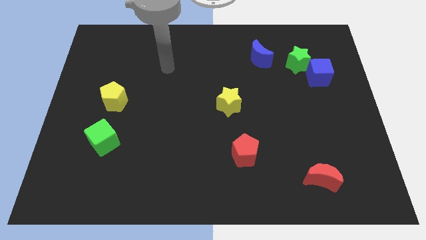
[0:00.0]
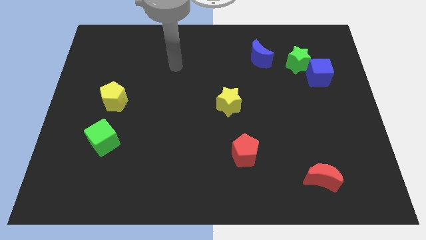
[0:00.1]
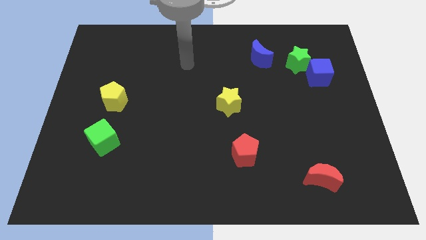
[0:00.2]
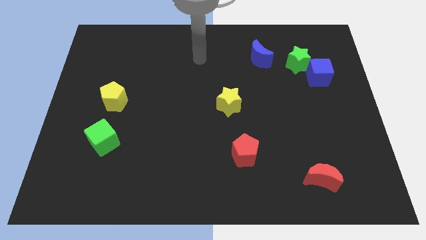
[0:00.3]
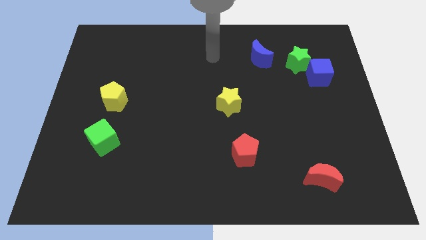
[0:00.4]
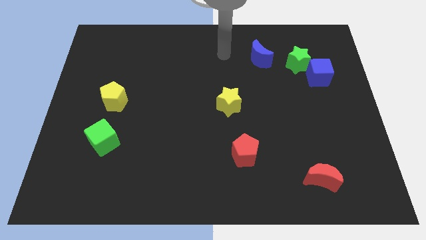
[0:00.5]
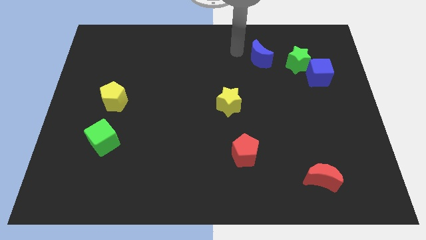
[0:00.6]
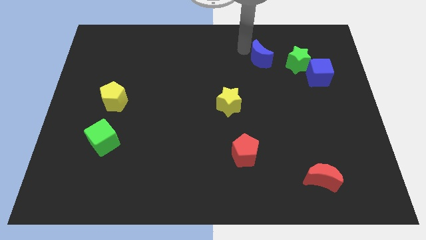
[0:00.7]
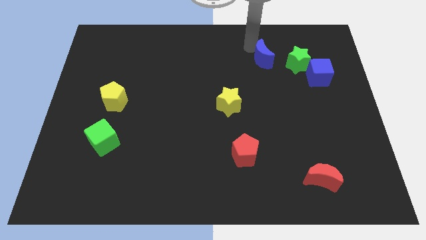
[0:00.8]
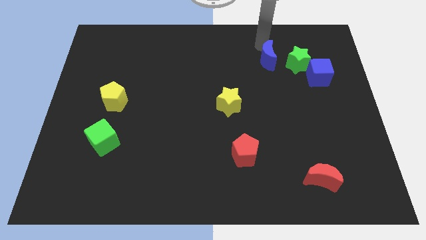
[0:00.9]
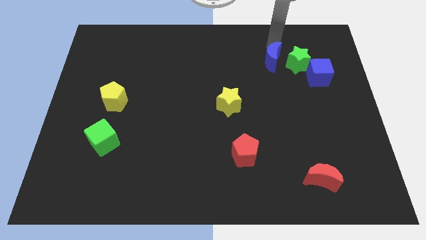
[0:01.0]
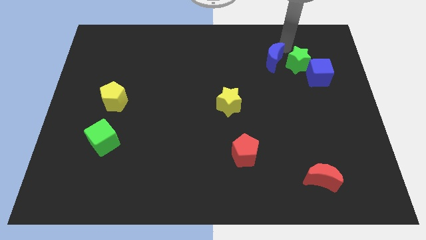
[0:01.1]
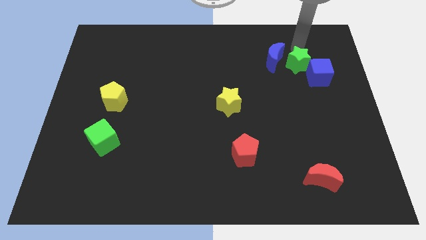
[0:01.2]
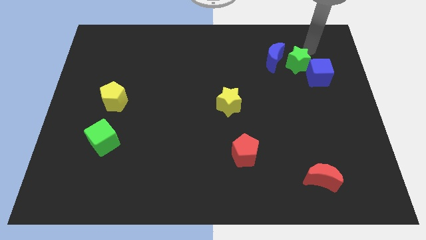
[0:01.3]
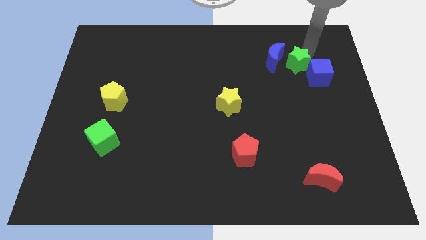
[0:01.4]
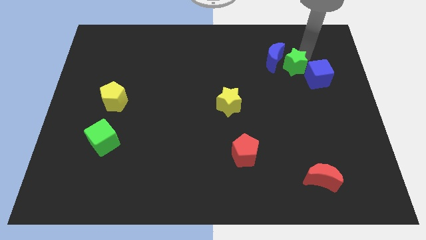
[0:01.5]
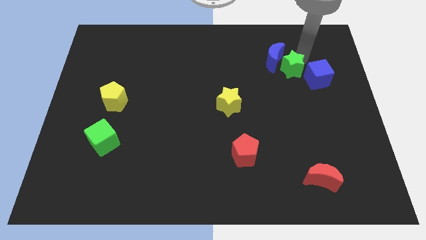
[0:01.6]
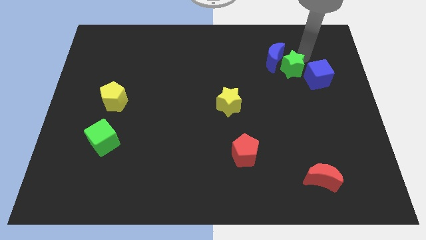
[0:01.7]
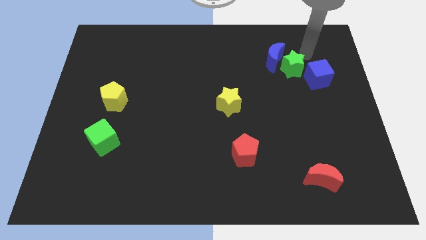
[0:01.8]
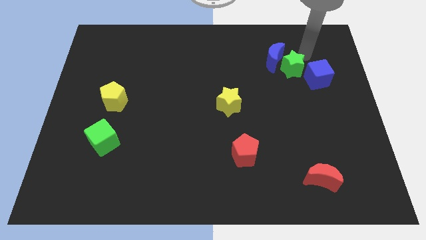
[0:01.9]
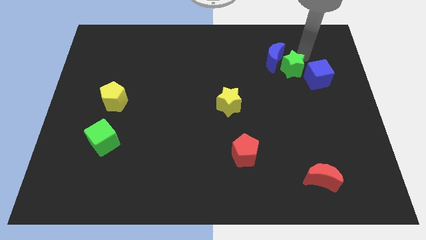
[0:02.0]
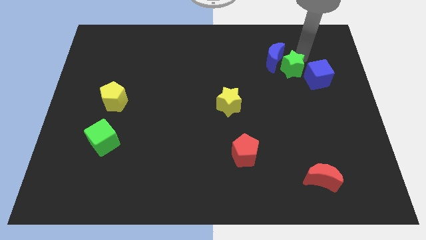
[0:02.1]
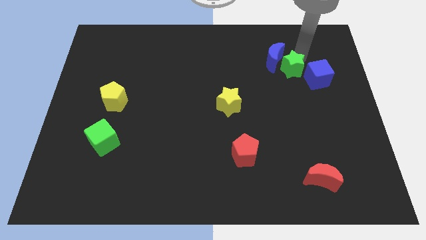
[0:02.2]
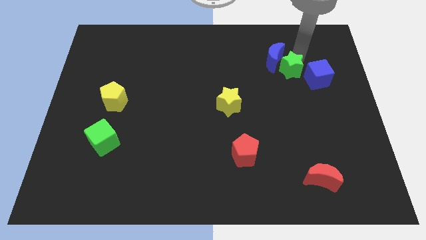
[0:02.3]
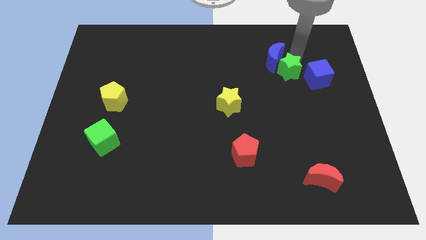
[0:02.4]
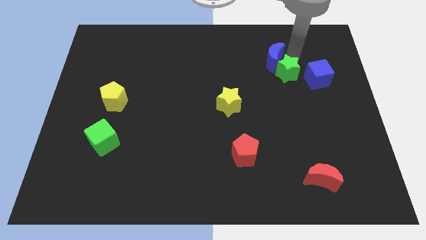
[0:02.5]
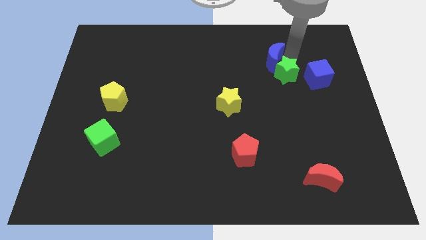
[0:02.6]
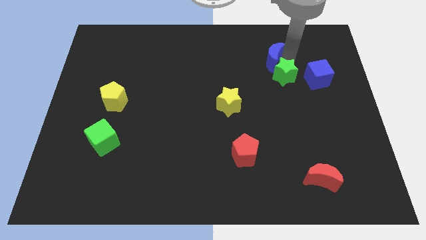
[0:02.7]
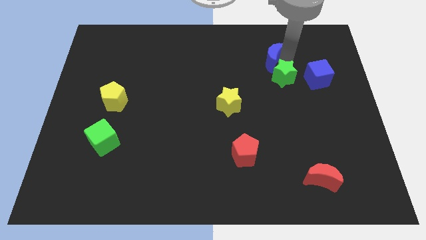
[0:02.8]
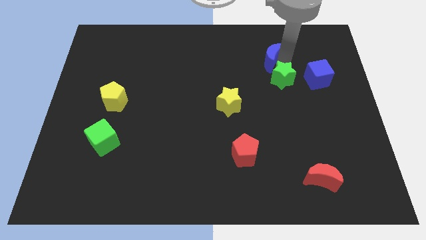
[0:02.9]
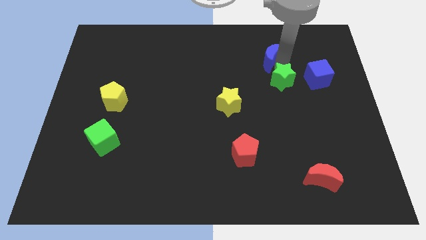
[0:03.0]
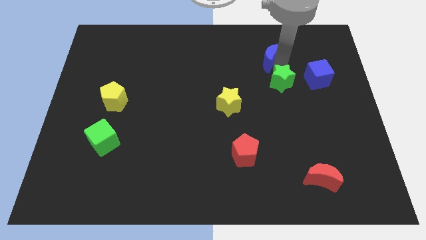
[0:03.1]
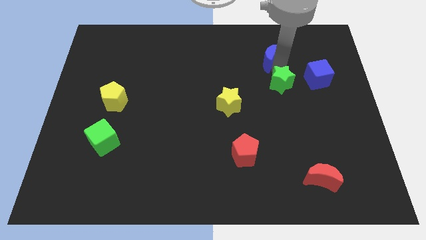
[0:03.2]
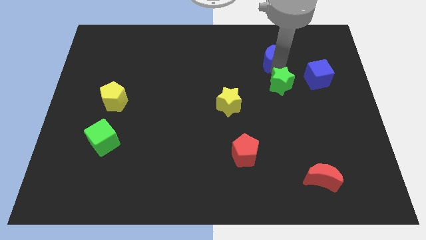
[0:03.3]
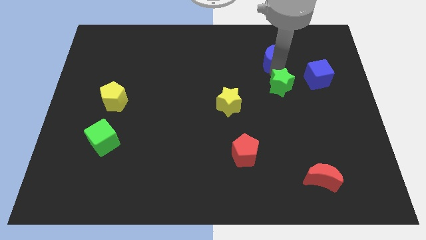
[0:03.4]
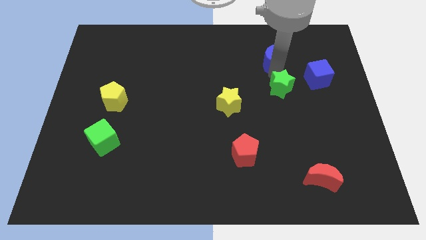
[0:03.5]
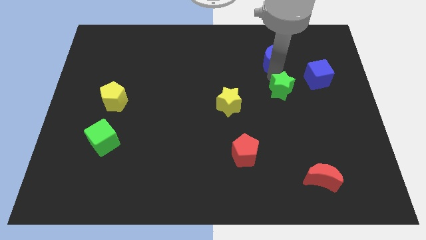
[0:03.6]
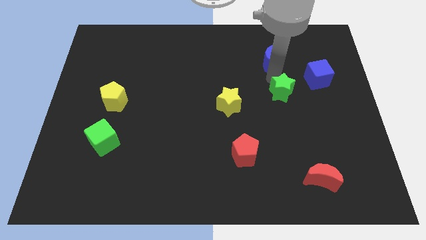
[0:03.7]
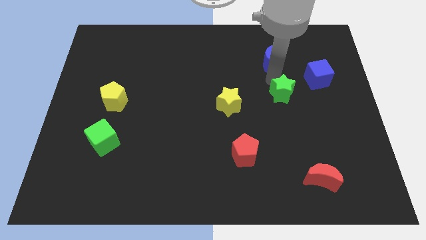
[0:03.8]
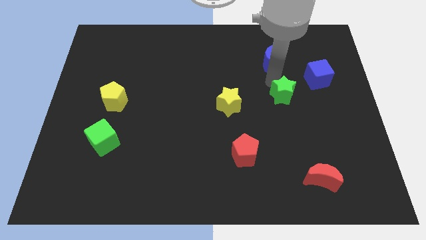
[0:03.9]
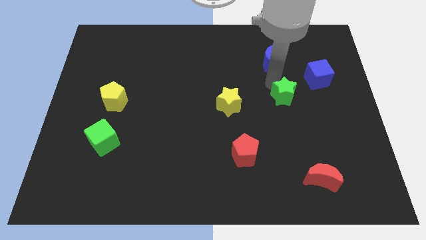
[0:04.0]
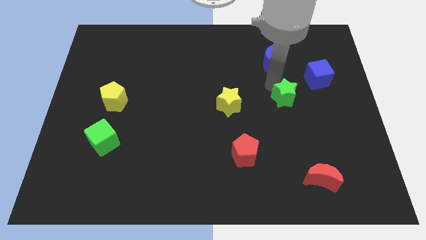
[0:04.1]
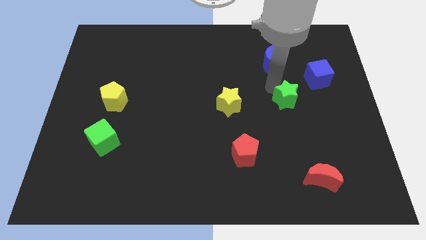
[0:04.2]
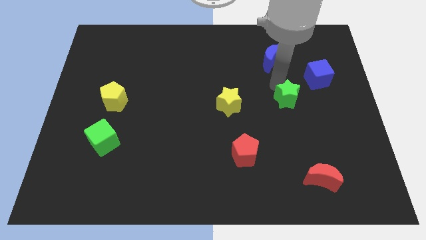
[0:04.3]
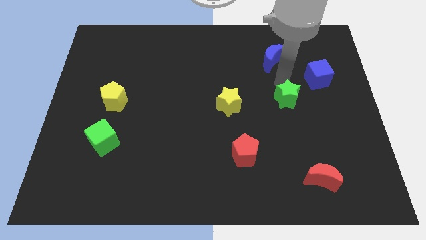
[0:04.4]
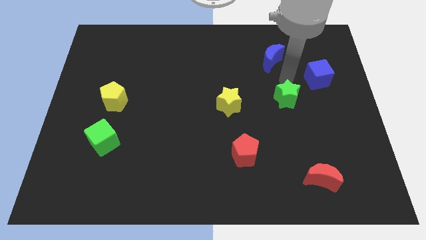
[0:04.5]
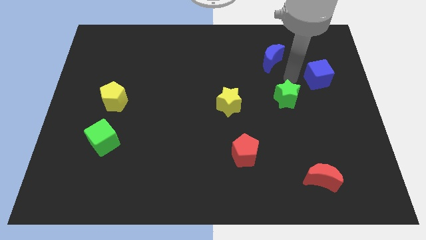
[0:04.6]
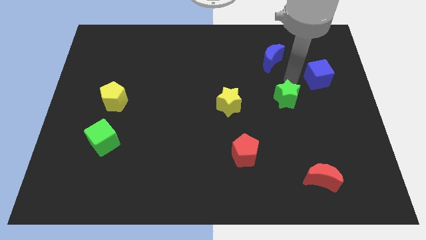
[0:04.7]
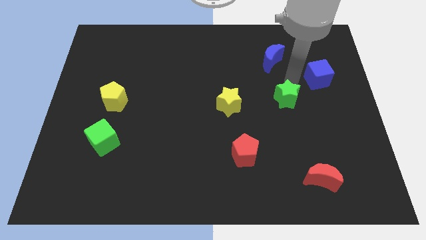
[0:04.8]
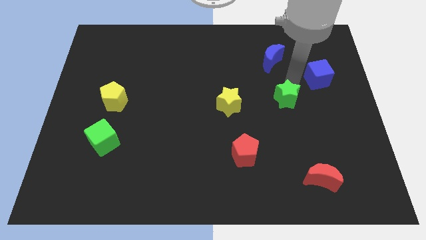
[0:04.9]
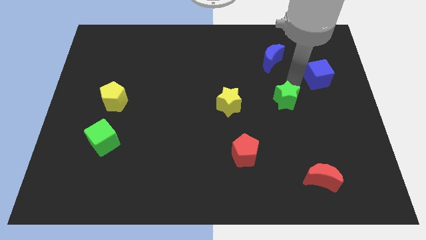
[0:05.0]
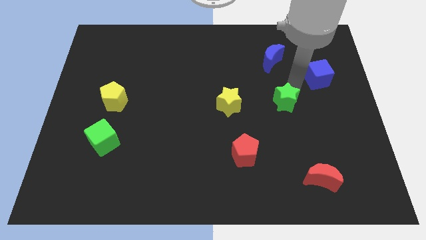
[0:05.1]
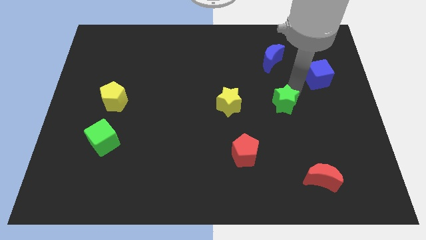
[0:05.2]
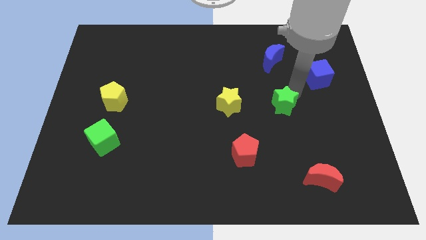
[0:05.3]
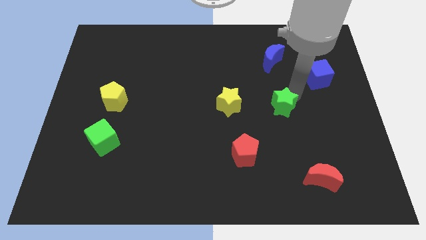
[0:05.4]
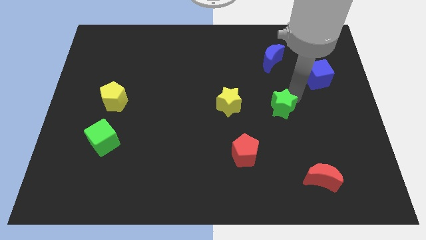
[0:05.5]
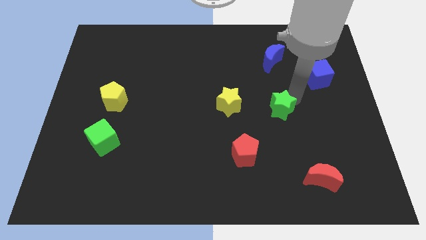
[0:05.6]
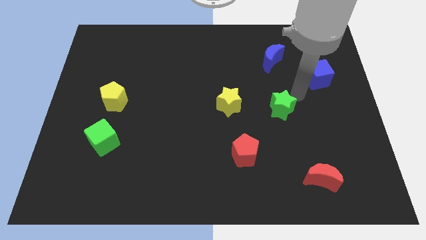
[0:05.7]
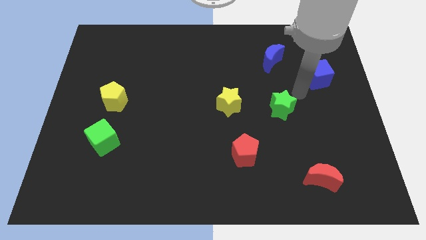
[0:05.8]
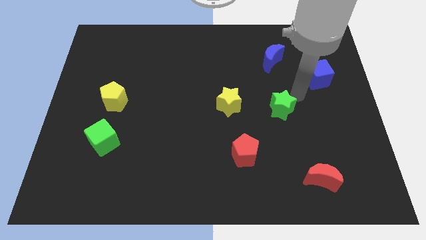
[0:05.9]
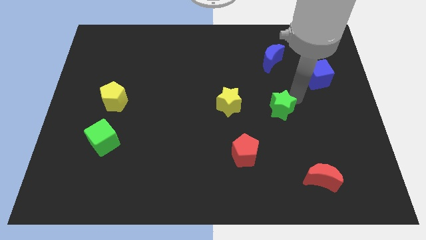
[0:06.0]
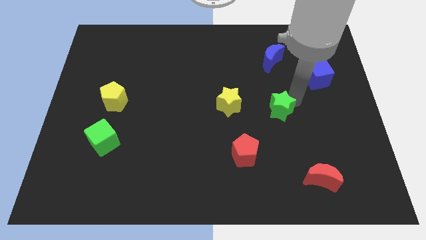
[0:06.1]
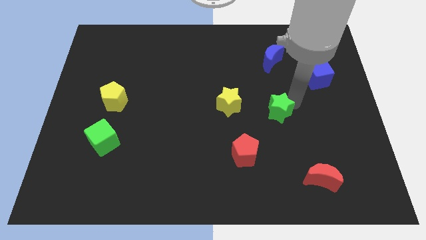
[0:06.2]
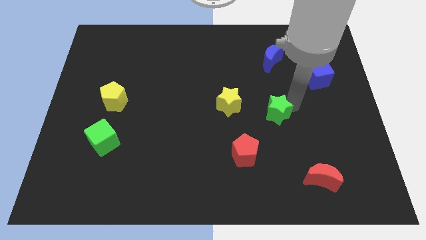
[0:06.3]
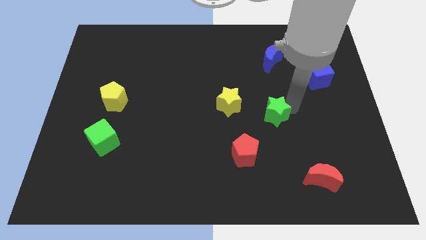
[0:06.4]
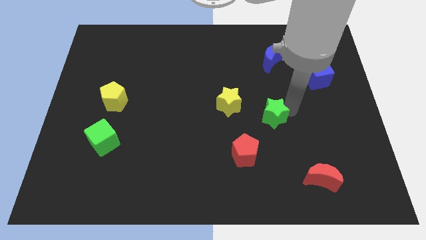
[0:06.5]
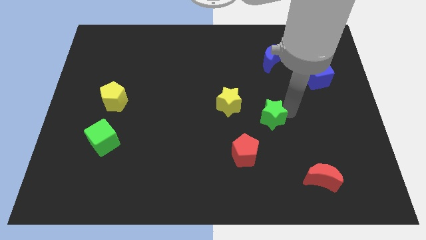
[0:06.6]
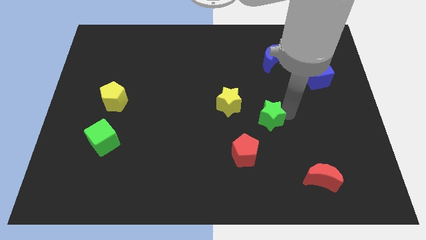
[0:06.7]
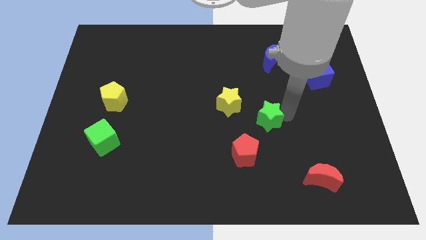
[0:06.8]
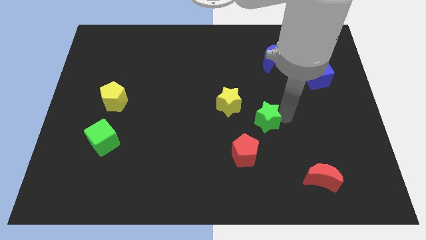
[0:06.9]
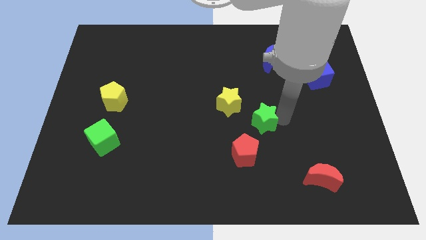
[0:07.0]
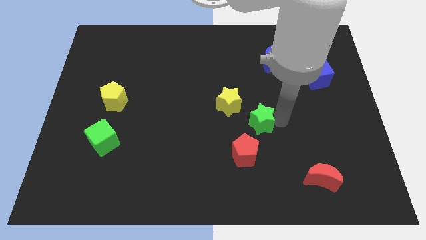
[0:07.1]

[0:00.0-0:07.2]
push the green star downwards and to the left

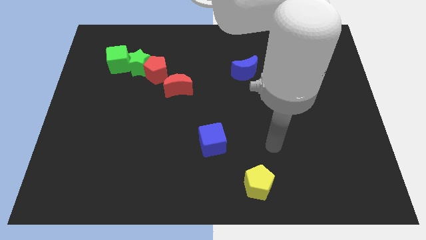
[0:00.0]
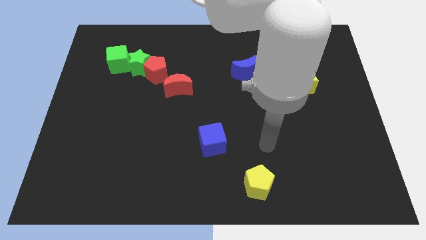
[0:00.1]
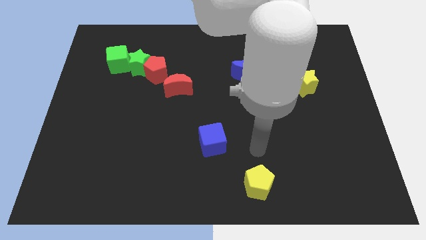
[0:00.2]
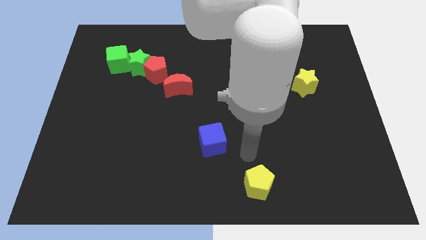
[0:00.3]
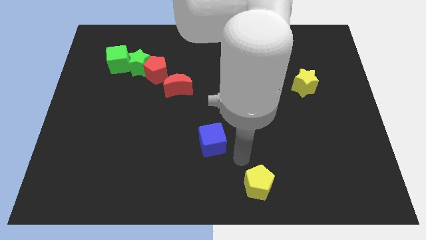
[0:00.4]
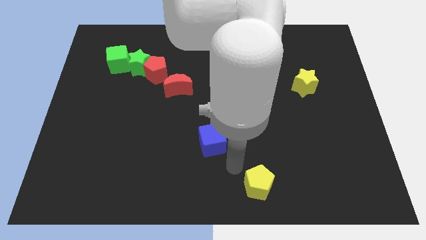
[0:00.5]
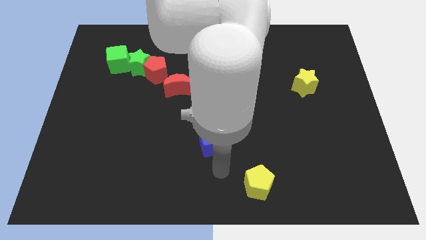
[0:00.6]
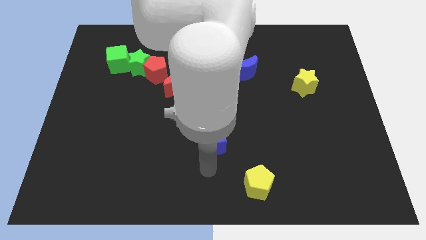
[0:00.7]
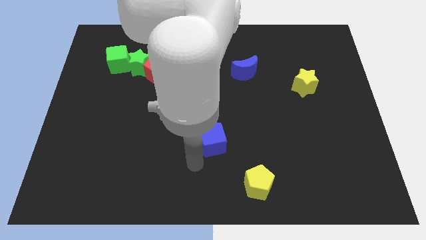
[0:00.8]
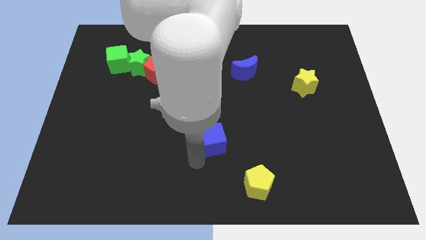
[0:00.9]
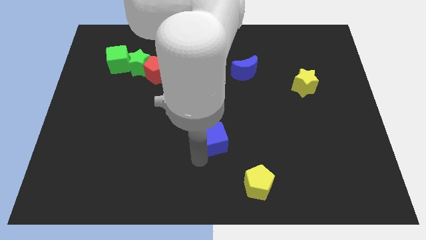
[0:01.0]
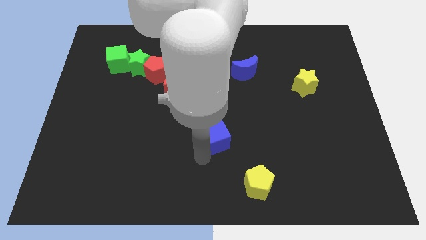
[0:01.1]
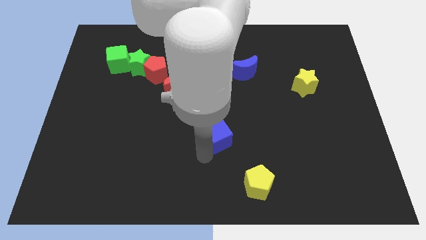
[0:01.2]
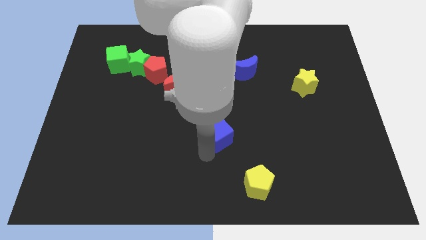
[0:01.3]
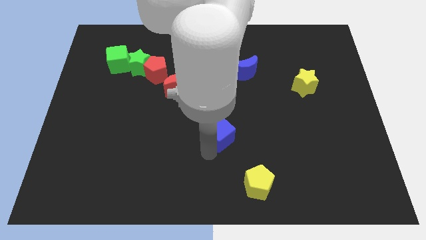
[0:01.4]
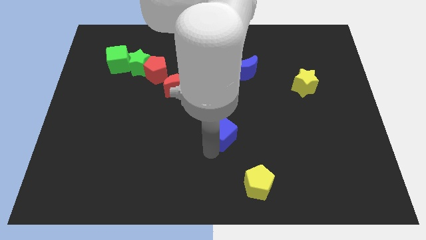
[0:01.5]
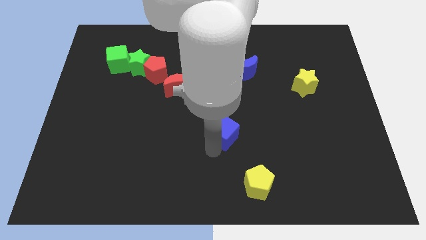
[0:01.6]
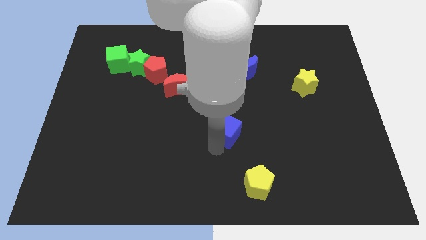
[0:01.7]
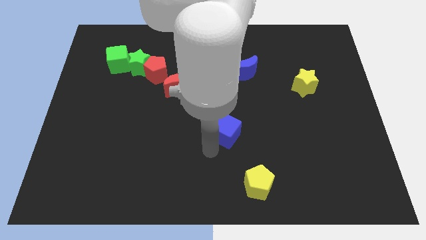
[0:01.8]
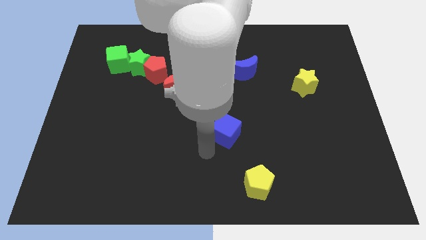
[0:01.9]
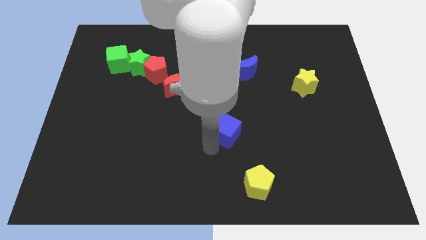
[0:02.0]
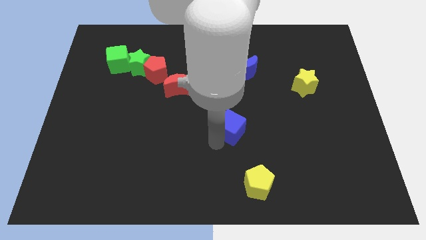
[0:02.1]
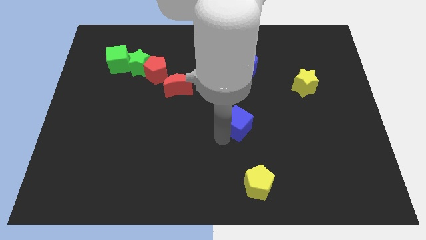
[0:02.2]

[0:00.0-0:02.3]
slide the blue cube diagonally upwards and right slightly
